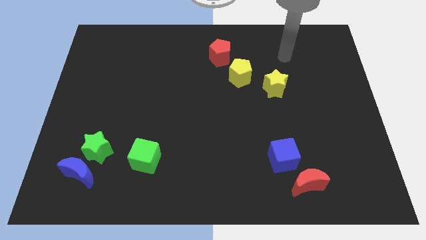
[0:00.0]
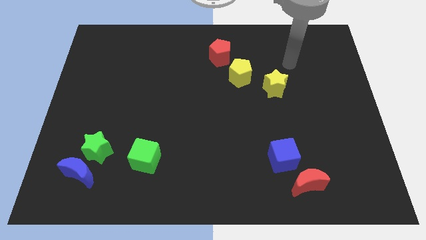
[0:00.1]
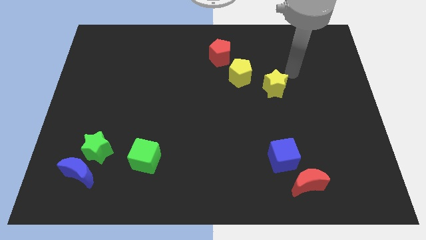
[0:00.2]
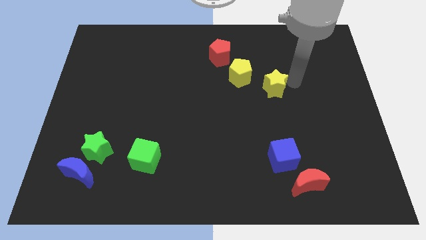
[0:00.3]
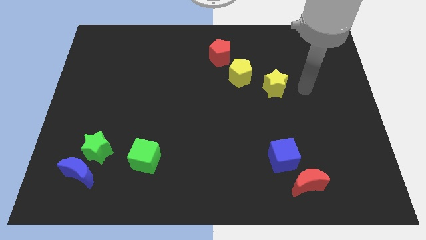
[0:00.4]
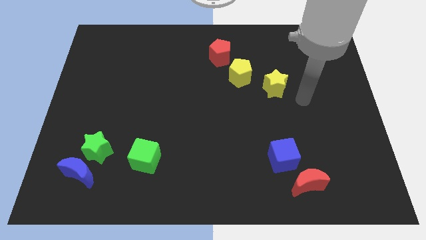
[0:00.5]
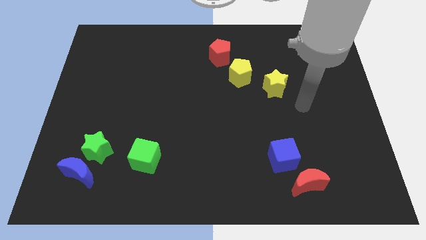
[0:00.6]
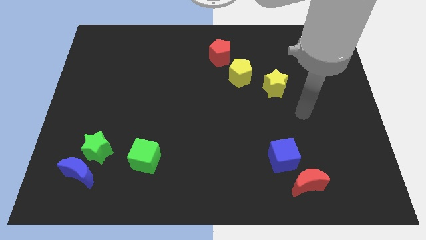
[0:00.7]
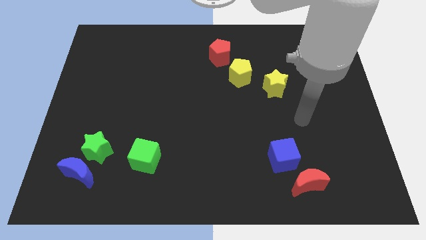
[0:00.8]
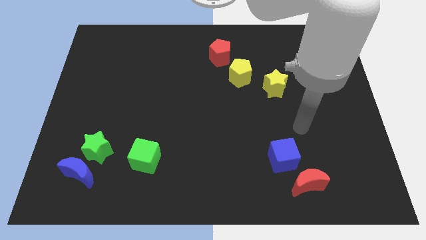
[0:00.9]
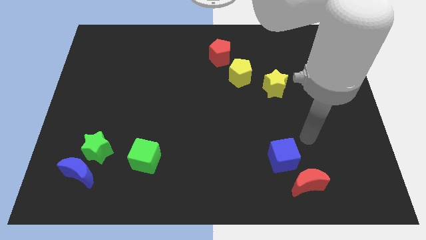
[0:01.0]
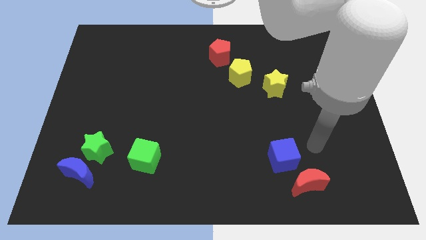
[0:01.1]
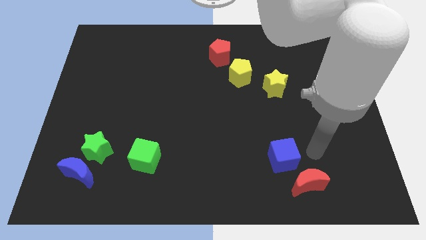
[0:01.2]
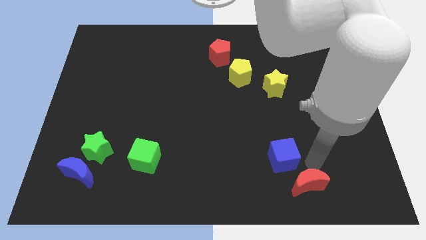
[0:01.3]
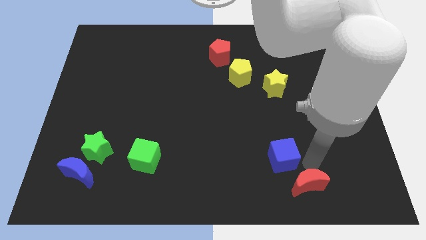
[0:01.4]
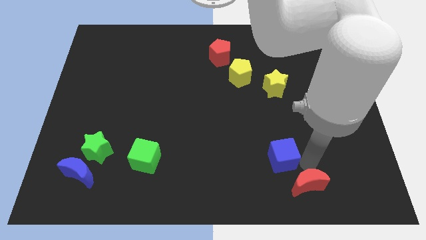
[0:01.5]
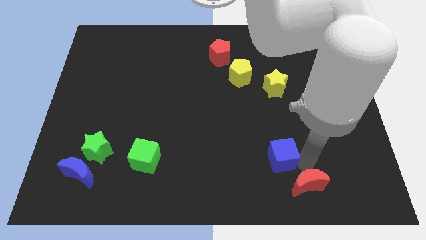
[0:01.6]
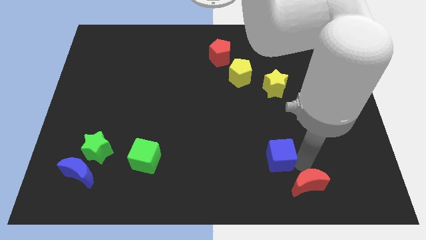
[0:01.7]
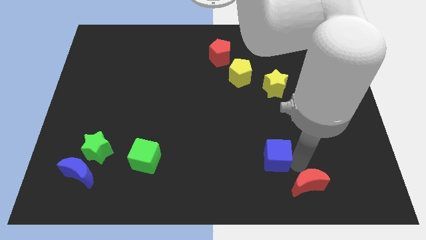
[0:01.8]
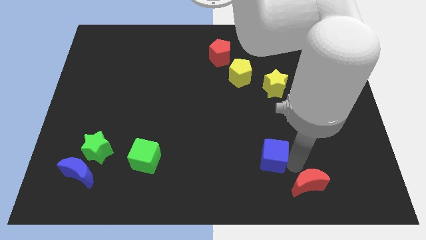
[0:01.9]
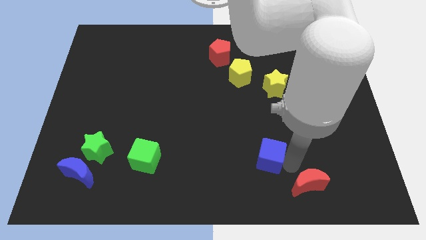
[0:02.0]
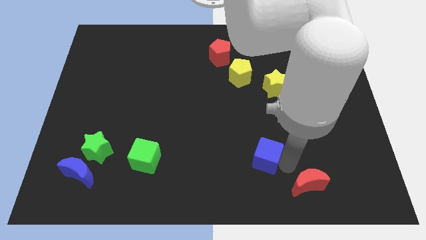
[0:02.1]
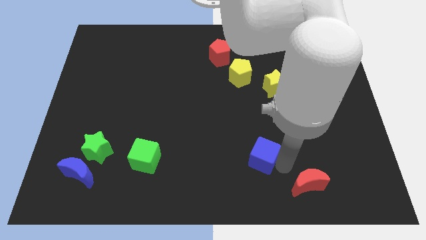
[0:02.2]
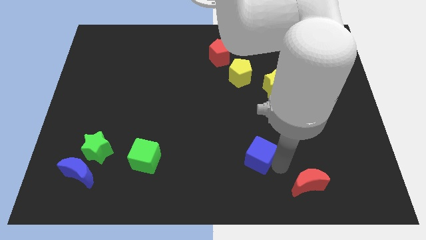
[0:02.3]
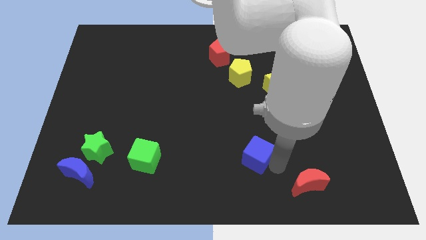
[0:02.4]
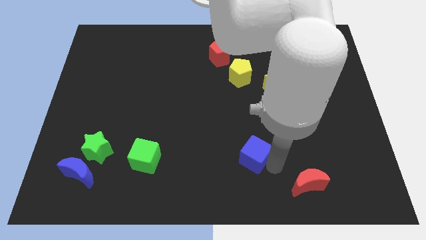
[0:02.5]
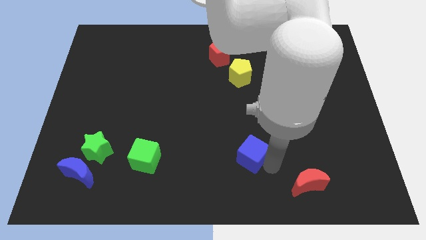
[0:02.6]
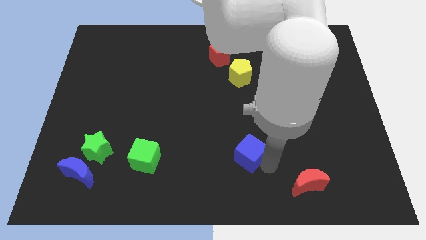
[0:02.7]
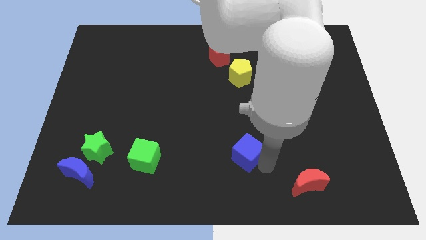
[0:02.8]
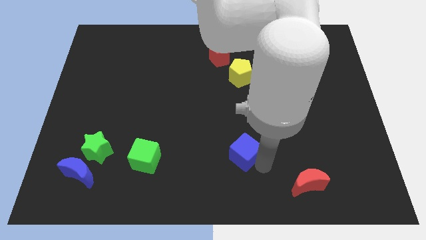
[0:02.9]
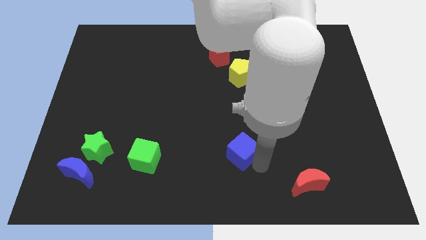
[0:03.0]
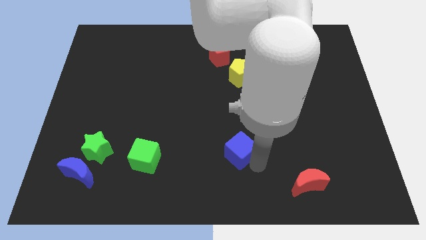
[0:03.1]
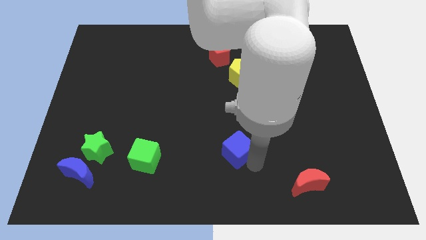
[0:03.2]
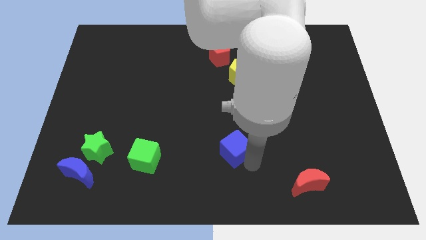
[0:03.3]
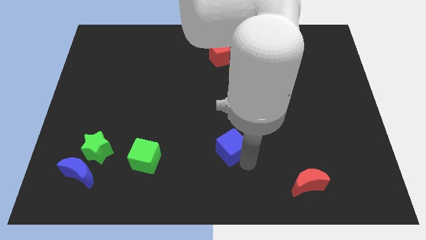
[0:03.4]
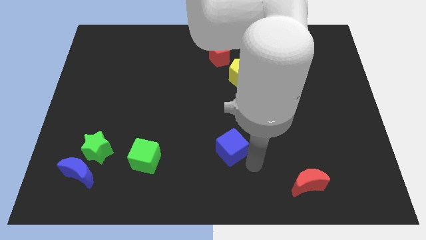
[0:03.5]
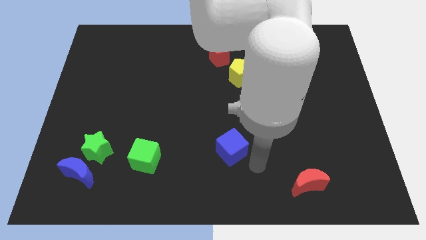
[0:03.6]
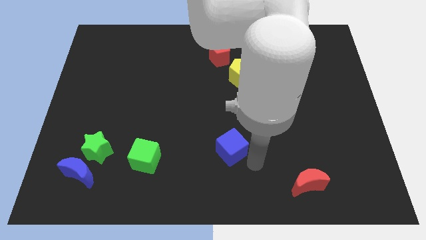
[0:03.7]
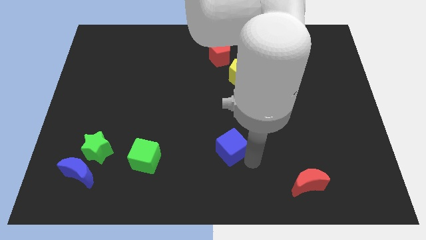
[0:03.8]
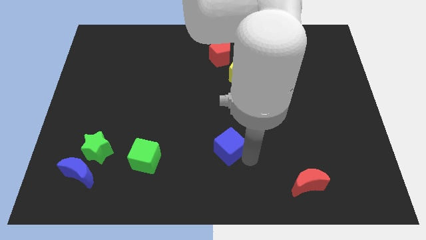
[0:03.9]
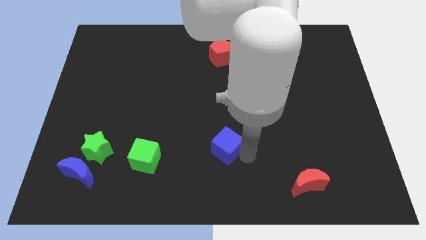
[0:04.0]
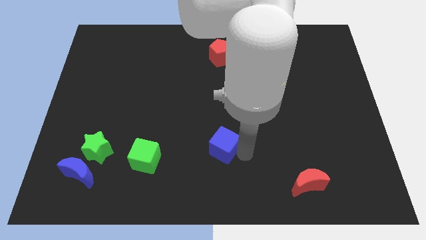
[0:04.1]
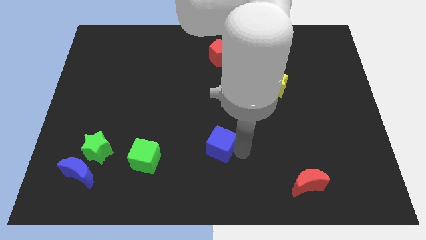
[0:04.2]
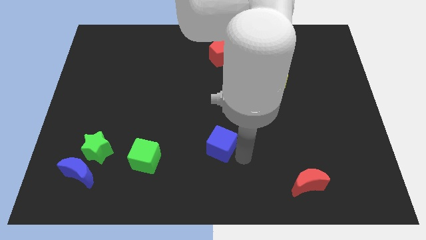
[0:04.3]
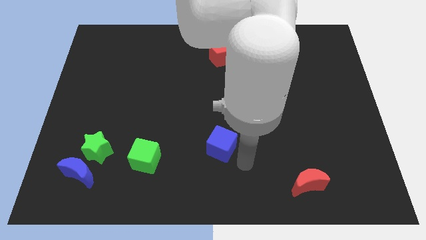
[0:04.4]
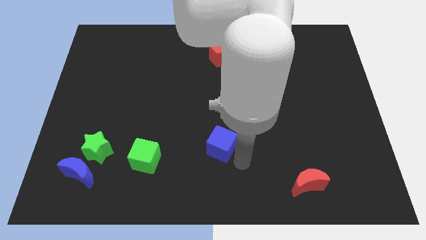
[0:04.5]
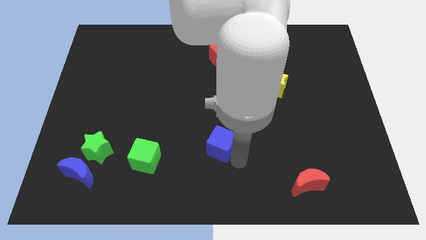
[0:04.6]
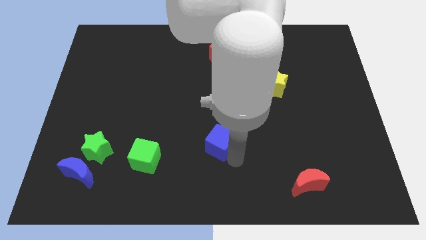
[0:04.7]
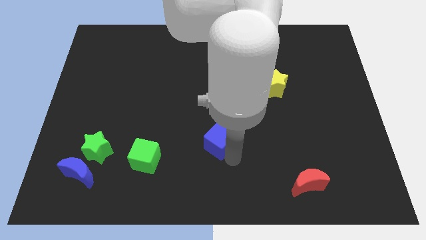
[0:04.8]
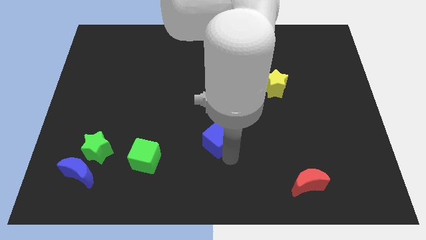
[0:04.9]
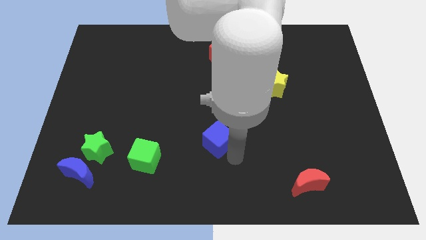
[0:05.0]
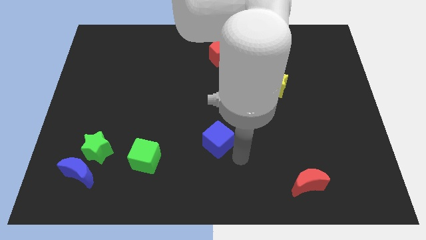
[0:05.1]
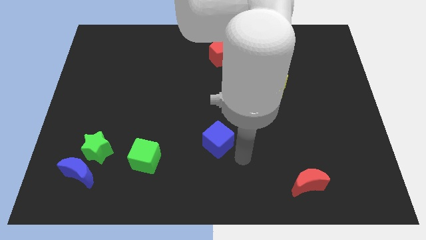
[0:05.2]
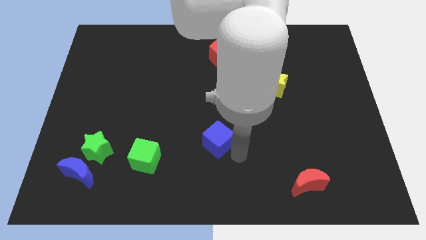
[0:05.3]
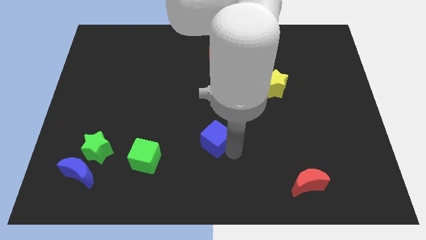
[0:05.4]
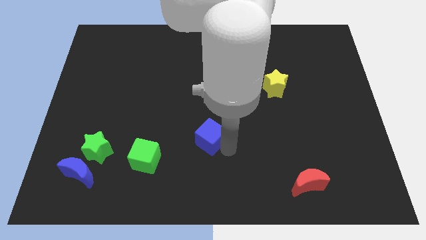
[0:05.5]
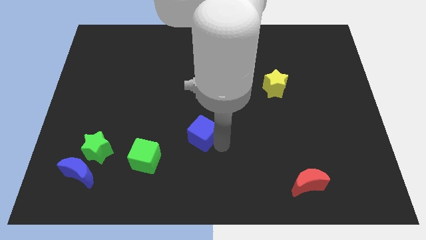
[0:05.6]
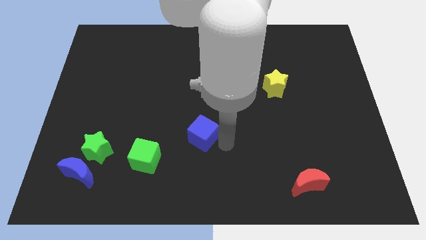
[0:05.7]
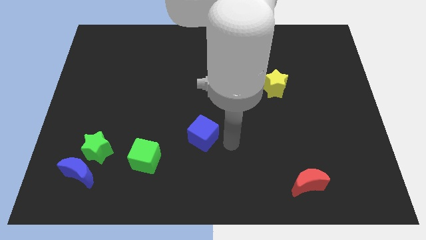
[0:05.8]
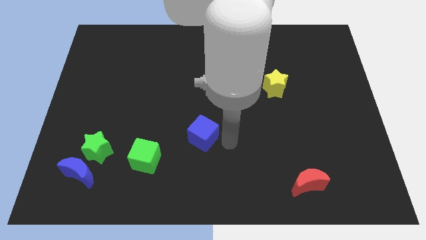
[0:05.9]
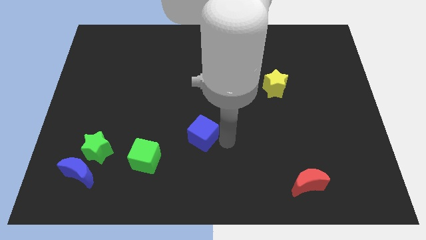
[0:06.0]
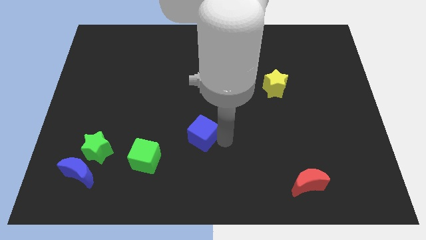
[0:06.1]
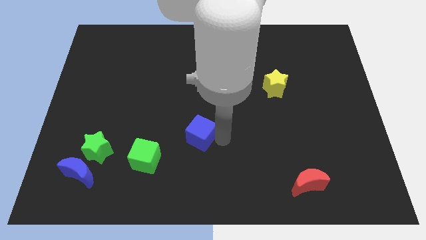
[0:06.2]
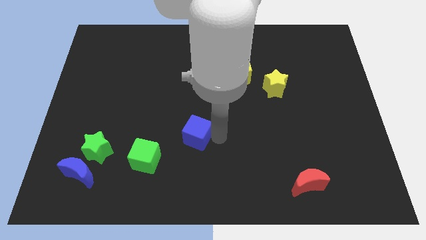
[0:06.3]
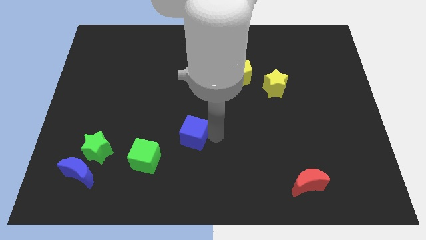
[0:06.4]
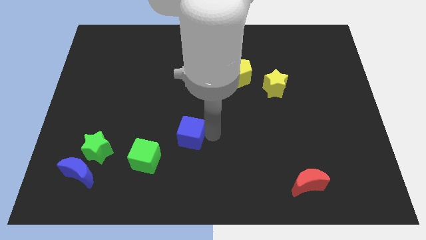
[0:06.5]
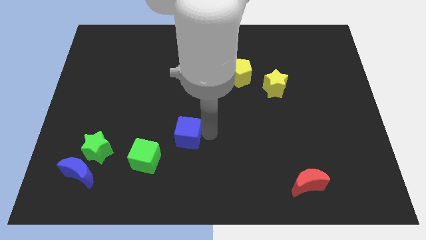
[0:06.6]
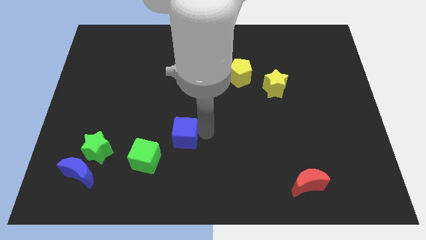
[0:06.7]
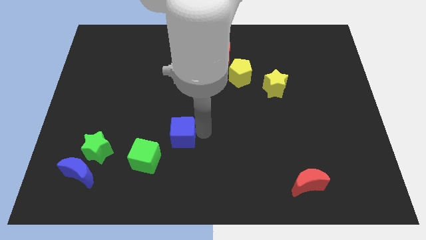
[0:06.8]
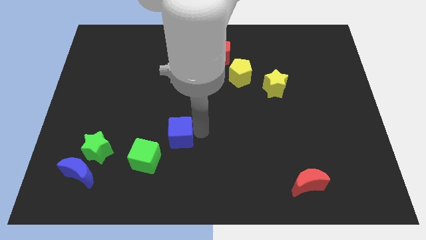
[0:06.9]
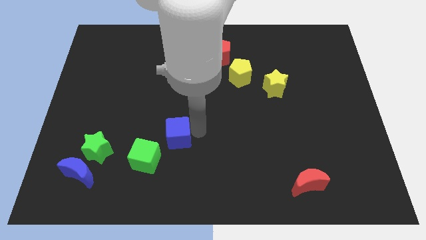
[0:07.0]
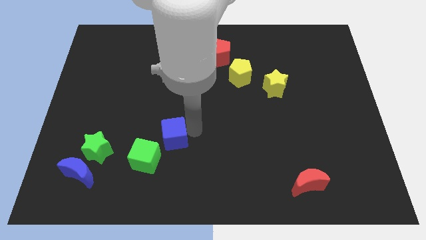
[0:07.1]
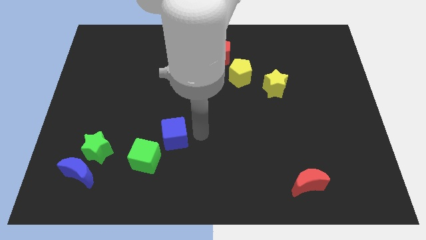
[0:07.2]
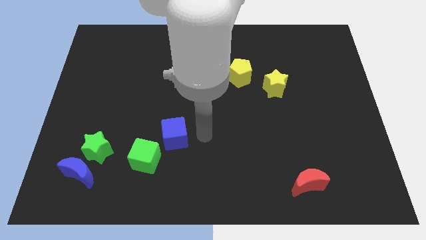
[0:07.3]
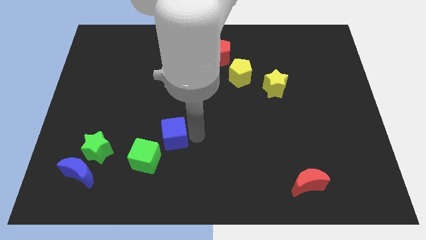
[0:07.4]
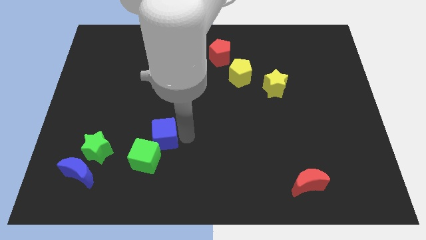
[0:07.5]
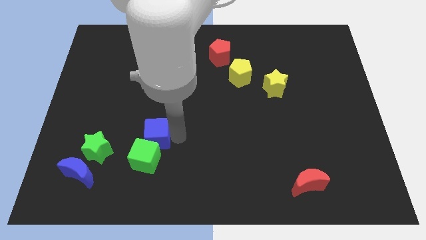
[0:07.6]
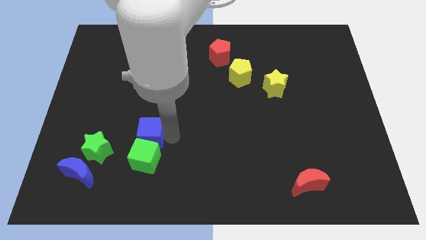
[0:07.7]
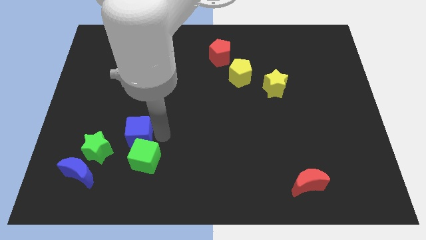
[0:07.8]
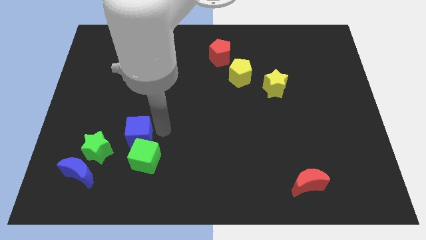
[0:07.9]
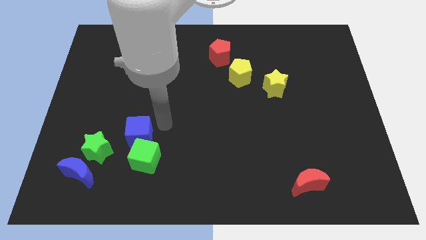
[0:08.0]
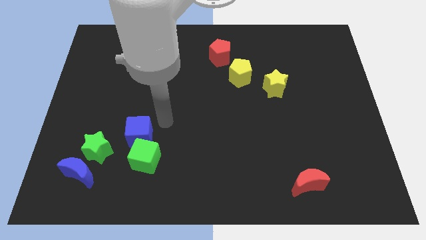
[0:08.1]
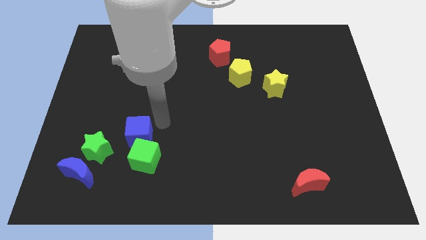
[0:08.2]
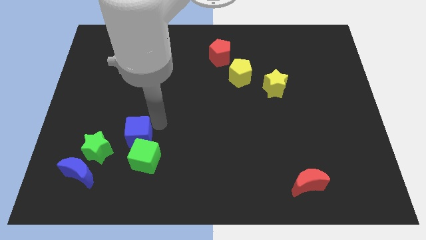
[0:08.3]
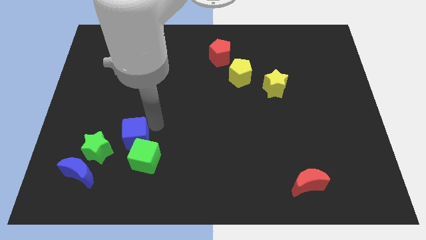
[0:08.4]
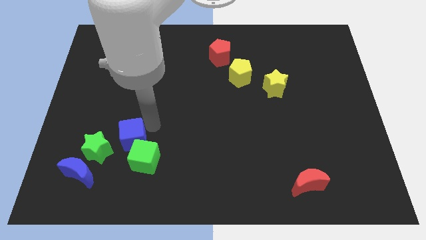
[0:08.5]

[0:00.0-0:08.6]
move the blue cube to the top right side of the blue moon
